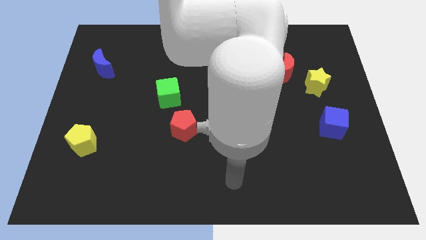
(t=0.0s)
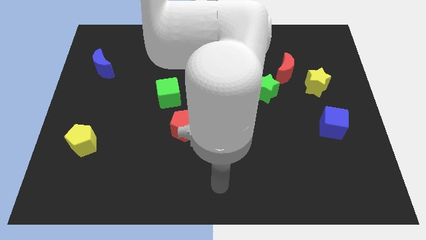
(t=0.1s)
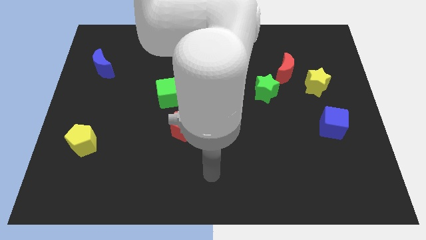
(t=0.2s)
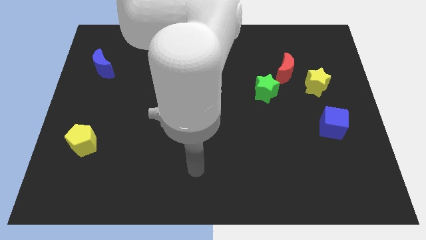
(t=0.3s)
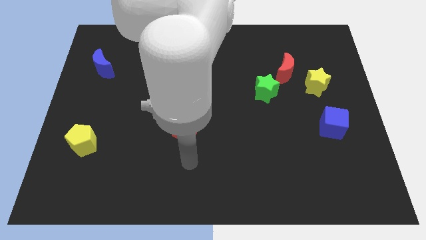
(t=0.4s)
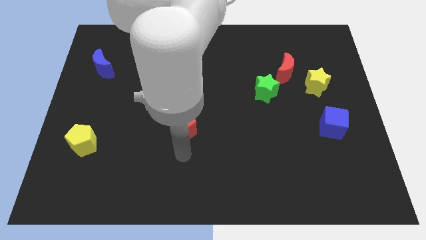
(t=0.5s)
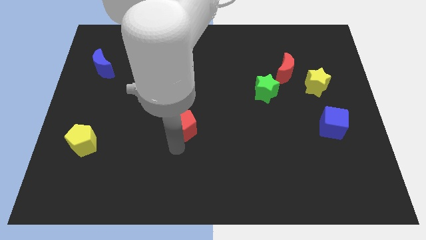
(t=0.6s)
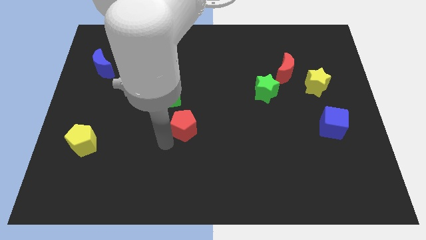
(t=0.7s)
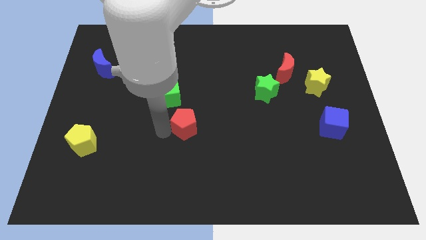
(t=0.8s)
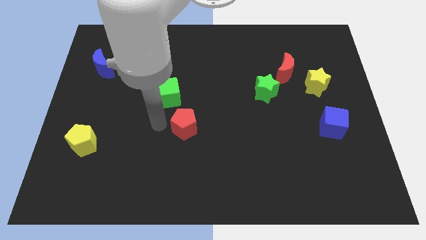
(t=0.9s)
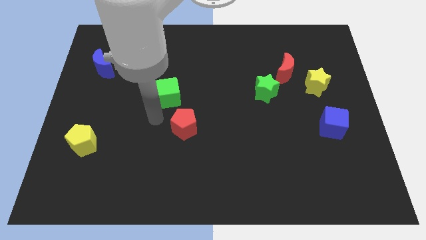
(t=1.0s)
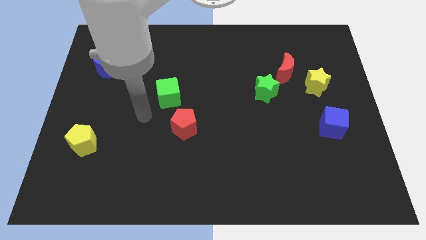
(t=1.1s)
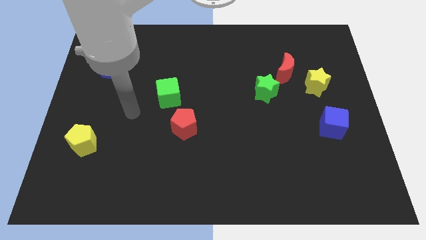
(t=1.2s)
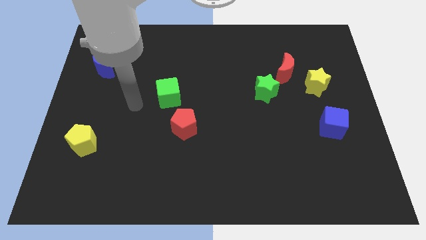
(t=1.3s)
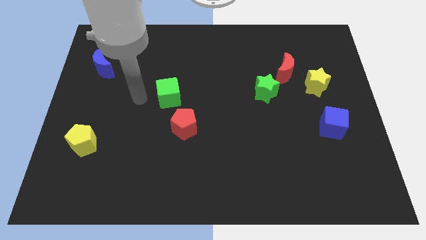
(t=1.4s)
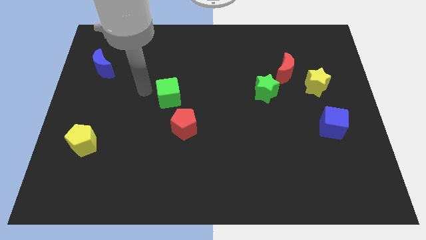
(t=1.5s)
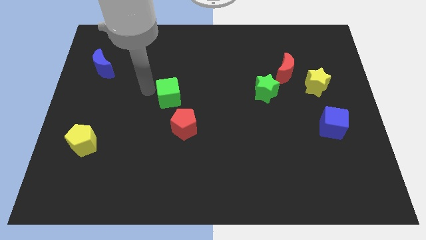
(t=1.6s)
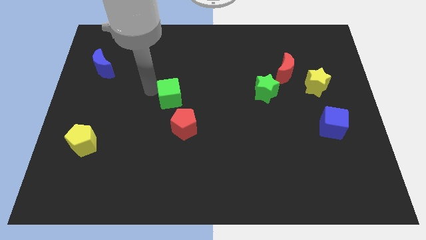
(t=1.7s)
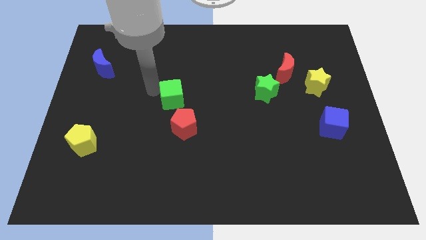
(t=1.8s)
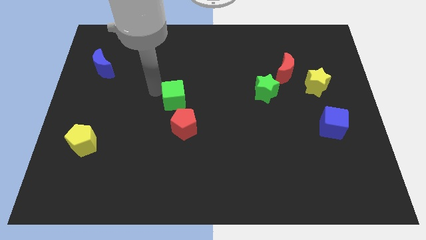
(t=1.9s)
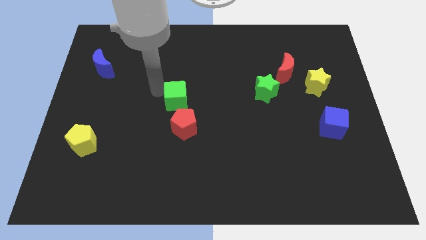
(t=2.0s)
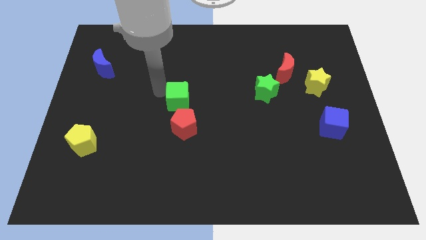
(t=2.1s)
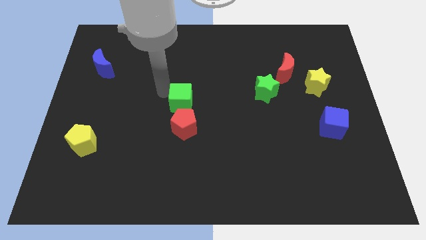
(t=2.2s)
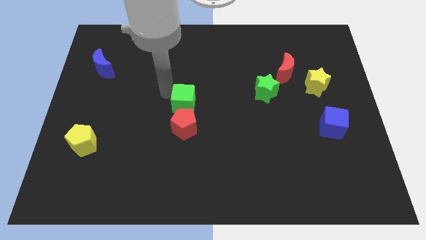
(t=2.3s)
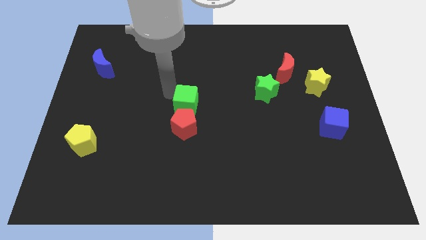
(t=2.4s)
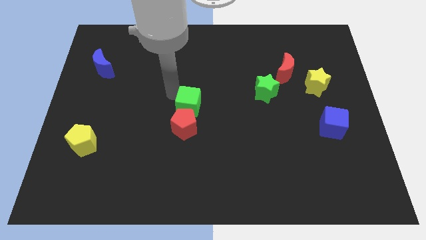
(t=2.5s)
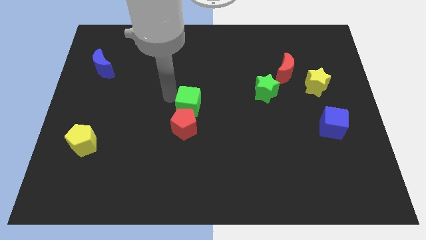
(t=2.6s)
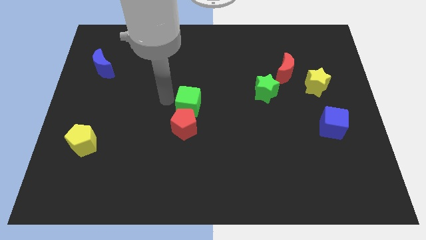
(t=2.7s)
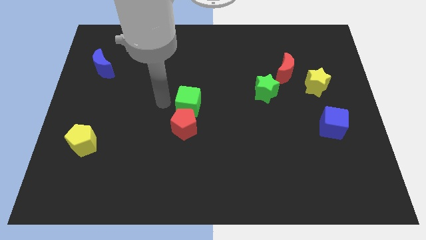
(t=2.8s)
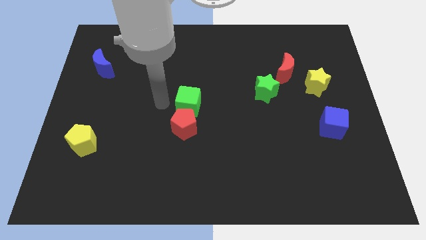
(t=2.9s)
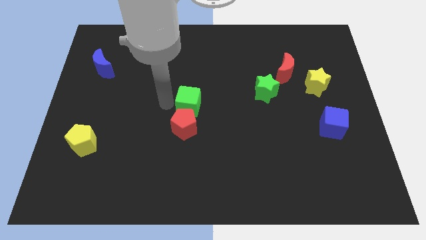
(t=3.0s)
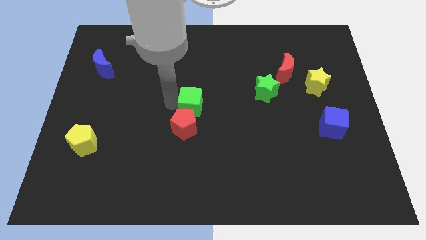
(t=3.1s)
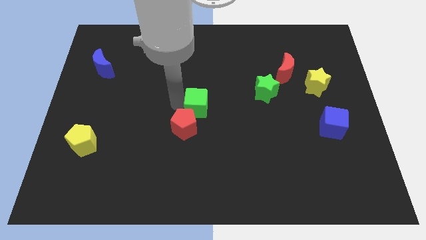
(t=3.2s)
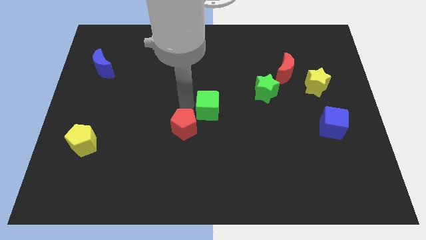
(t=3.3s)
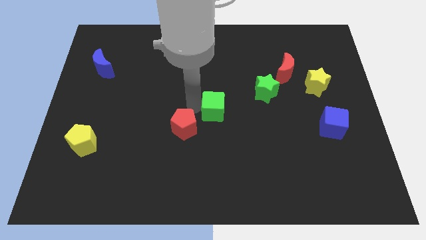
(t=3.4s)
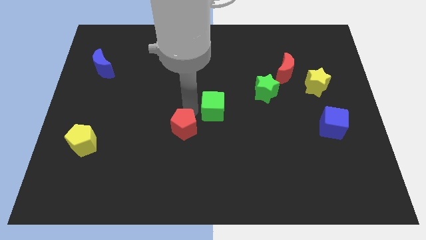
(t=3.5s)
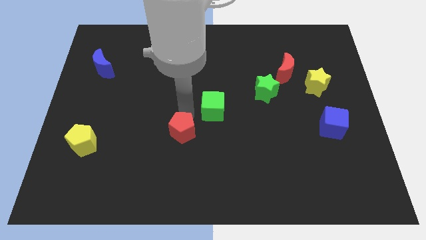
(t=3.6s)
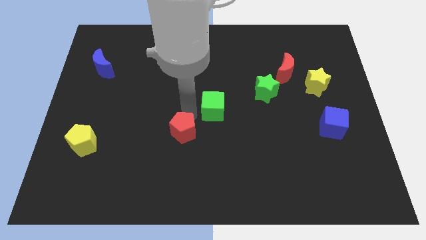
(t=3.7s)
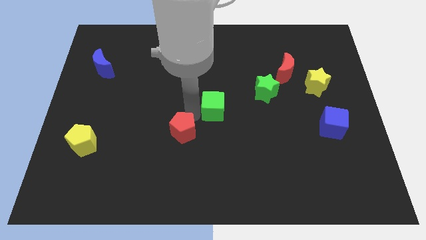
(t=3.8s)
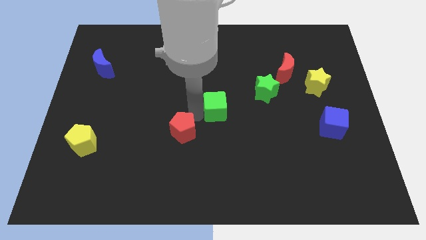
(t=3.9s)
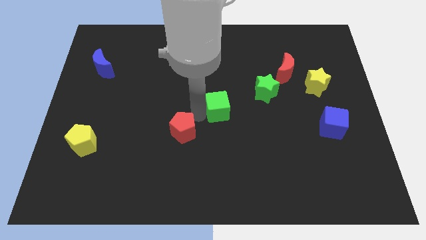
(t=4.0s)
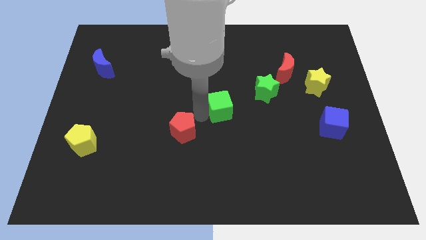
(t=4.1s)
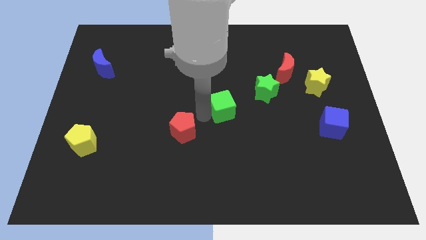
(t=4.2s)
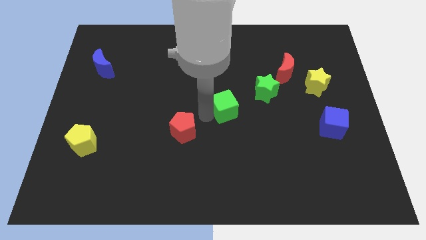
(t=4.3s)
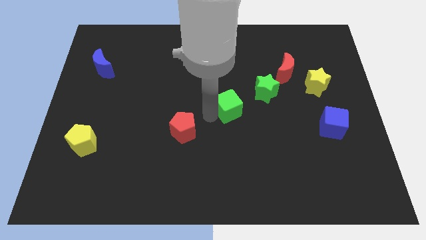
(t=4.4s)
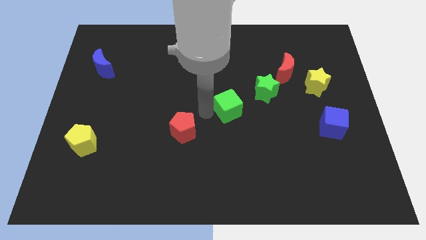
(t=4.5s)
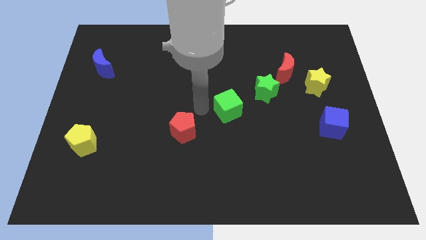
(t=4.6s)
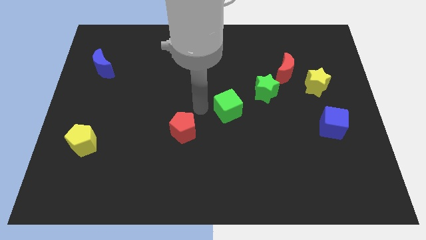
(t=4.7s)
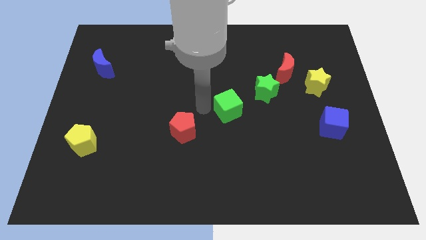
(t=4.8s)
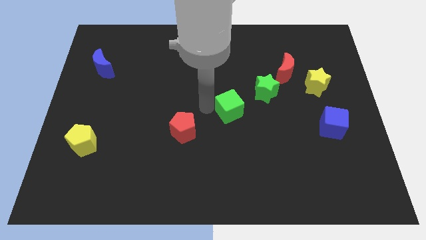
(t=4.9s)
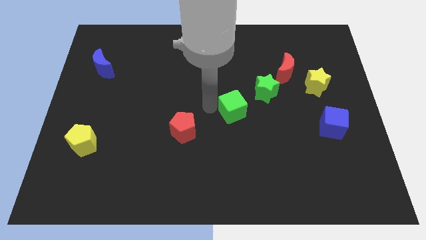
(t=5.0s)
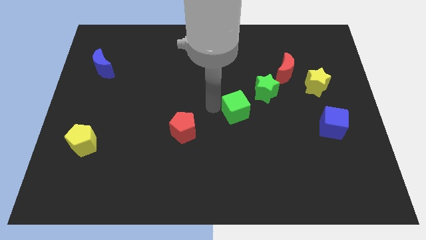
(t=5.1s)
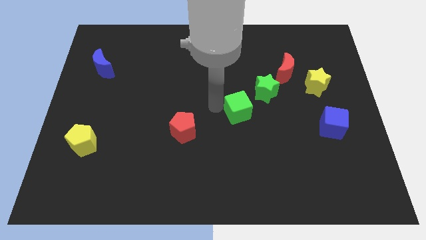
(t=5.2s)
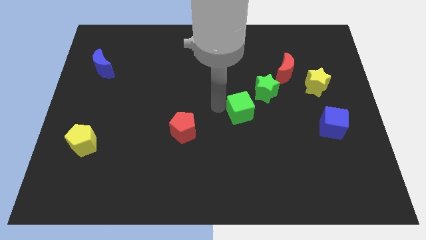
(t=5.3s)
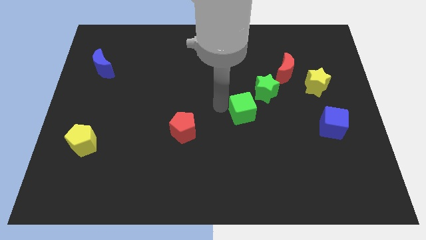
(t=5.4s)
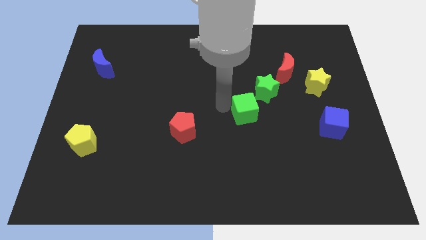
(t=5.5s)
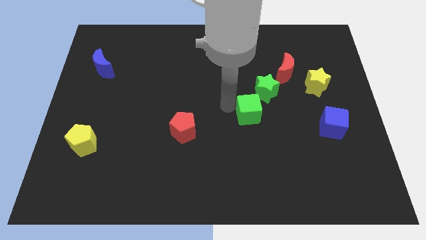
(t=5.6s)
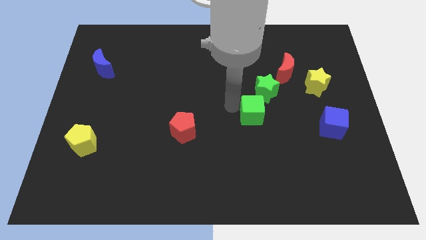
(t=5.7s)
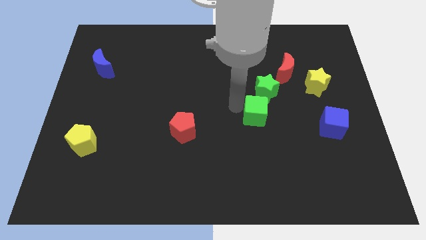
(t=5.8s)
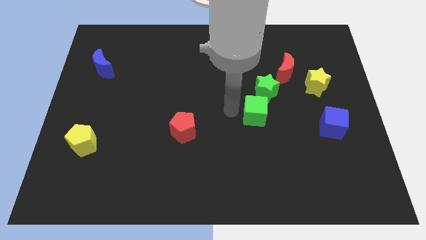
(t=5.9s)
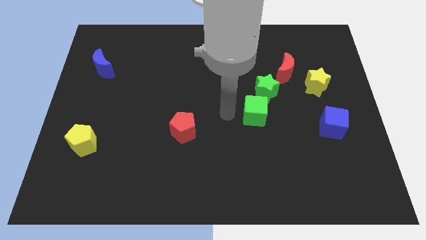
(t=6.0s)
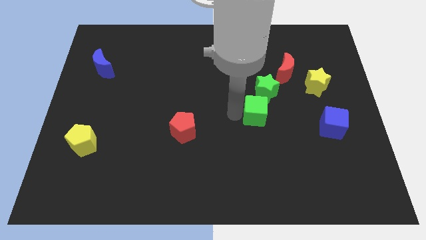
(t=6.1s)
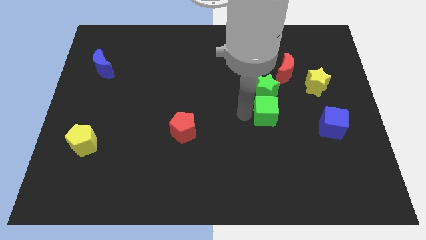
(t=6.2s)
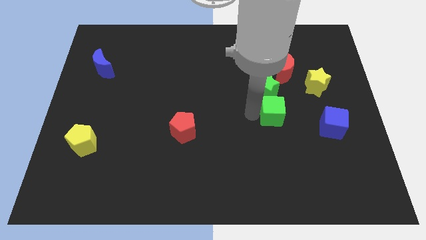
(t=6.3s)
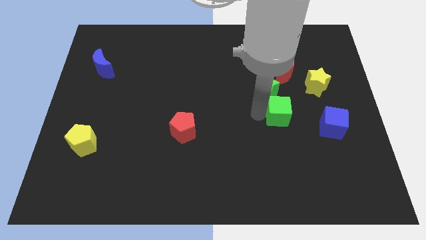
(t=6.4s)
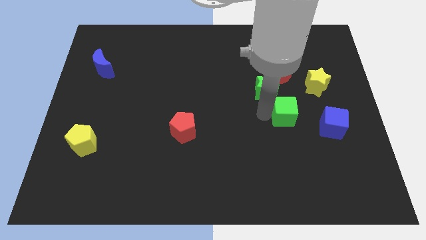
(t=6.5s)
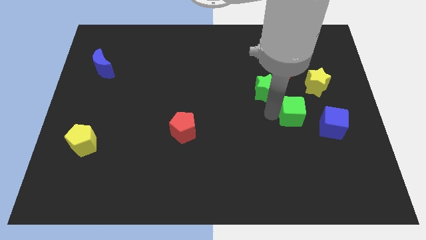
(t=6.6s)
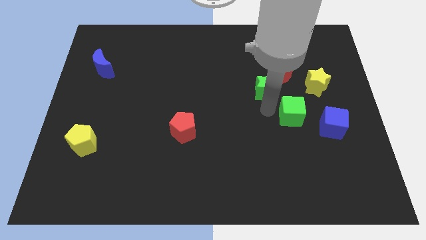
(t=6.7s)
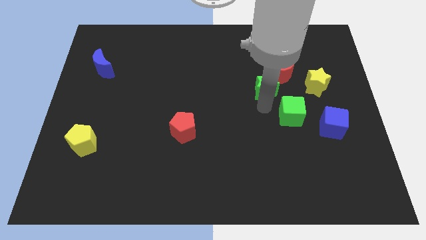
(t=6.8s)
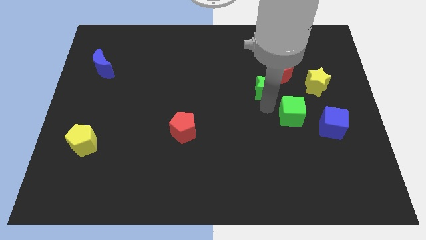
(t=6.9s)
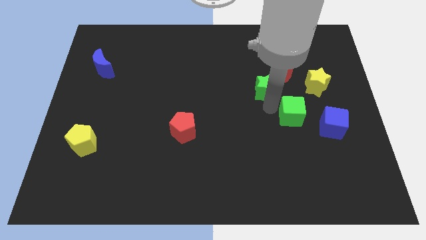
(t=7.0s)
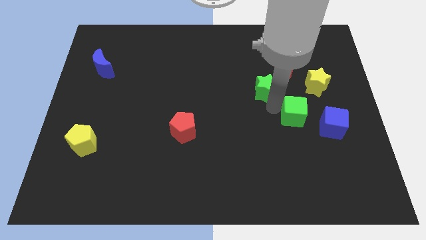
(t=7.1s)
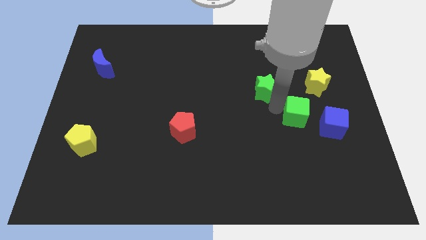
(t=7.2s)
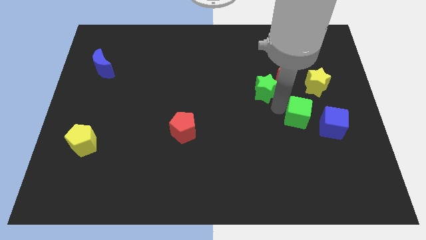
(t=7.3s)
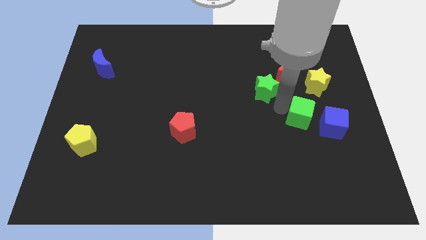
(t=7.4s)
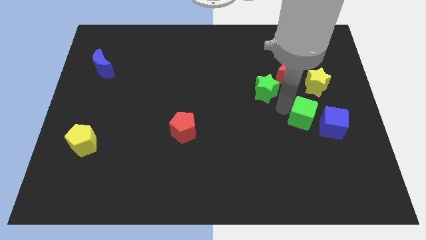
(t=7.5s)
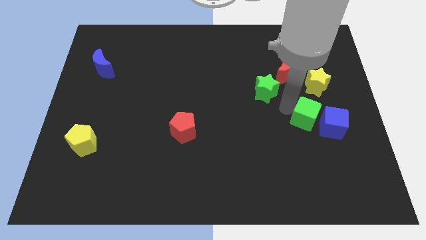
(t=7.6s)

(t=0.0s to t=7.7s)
put the green cube to the blue cube
